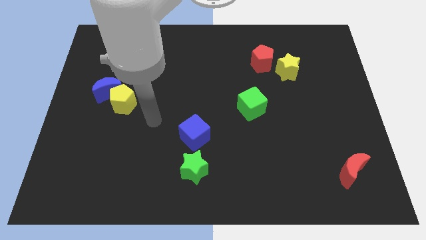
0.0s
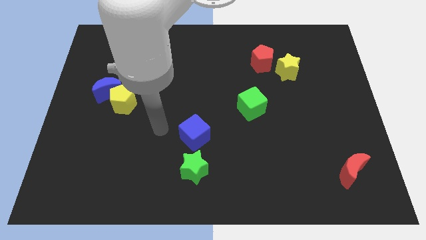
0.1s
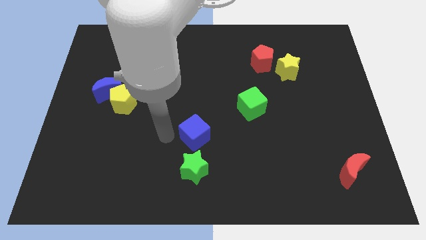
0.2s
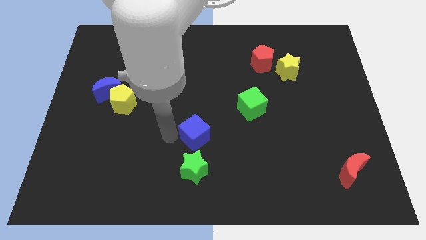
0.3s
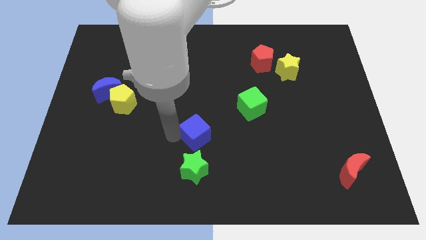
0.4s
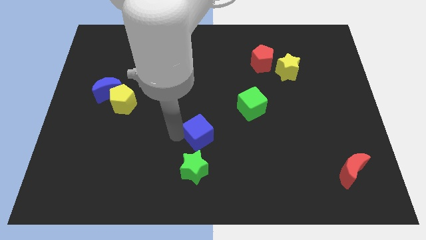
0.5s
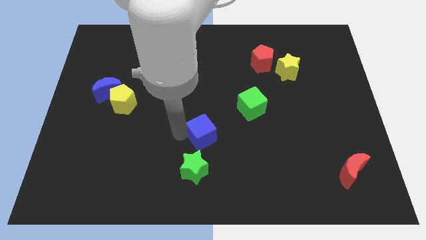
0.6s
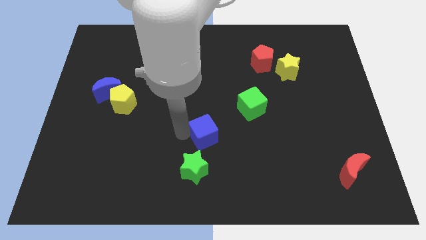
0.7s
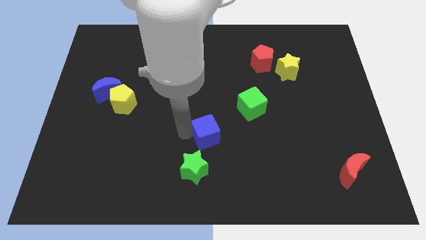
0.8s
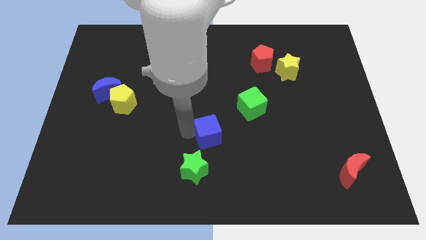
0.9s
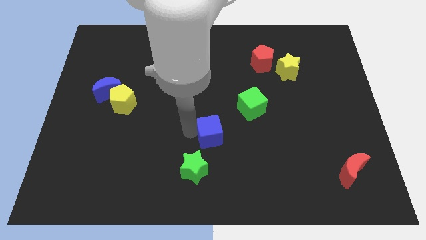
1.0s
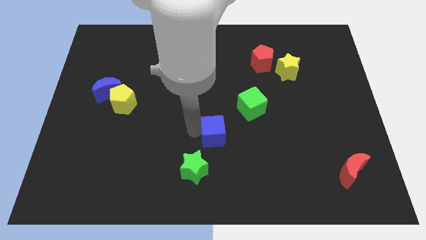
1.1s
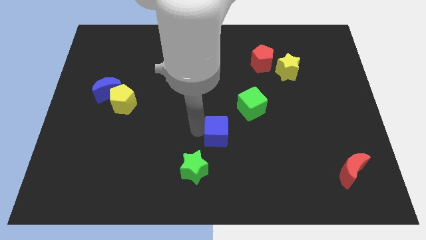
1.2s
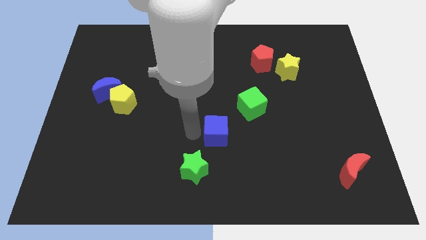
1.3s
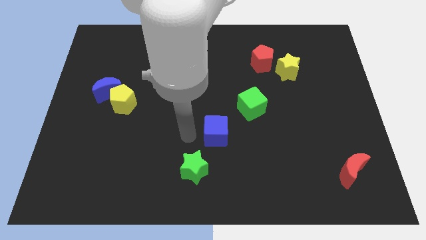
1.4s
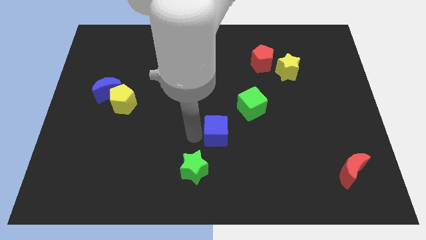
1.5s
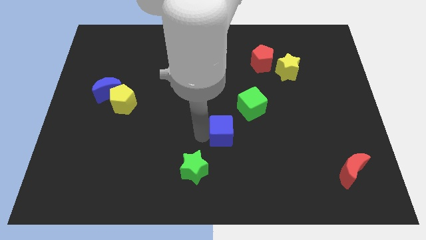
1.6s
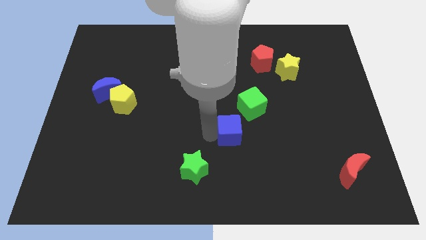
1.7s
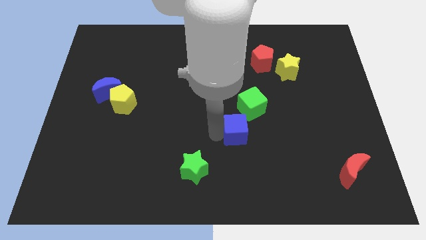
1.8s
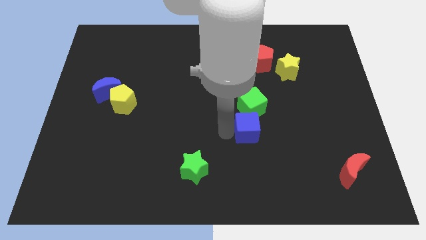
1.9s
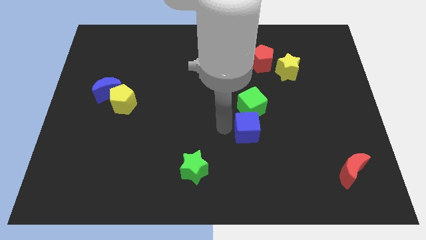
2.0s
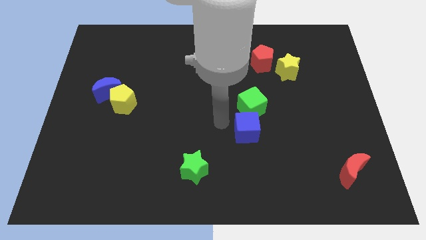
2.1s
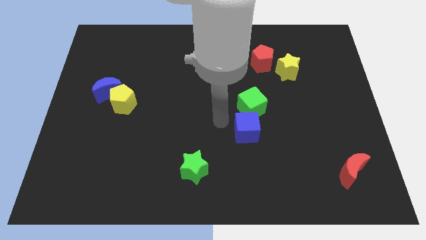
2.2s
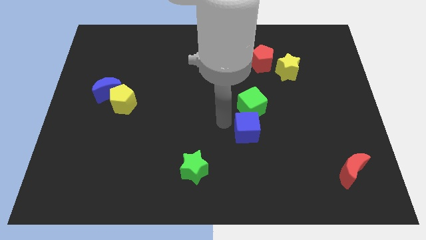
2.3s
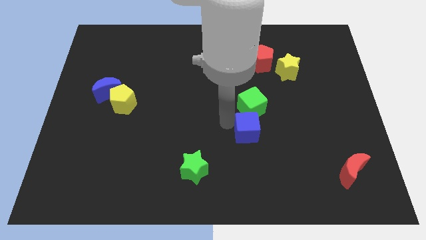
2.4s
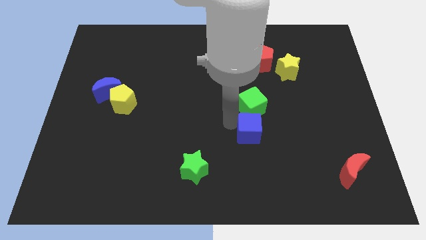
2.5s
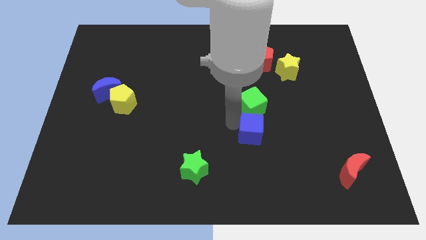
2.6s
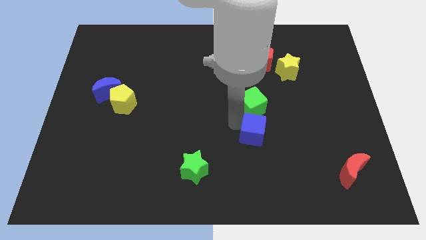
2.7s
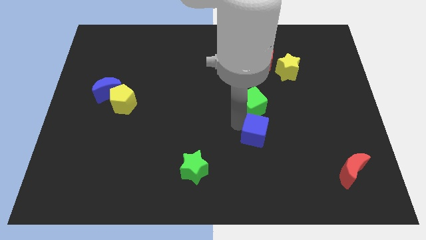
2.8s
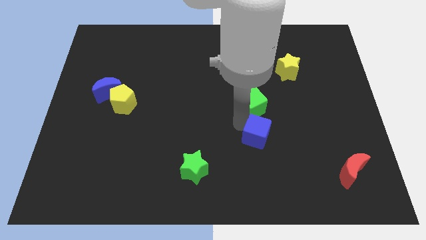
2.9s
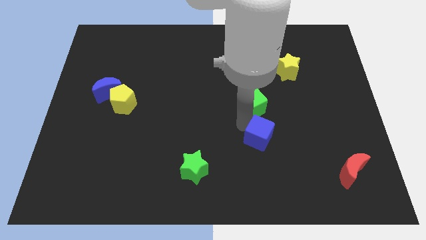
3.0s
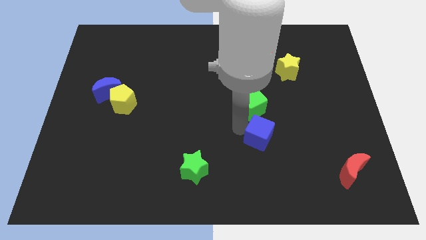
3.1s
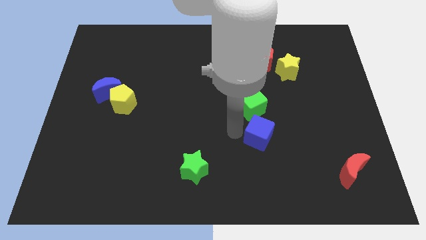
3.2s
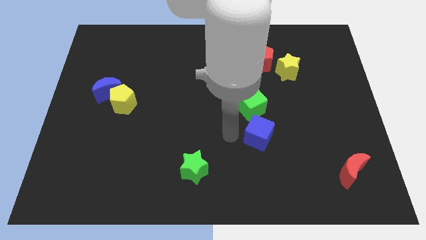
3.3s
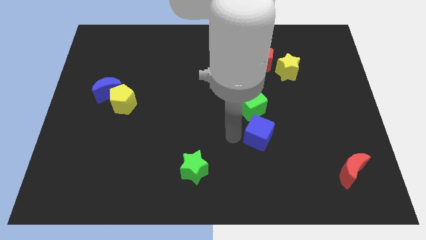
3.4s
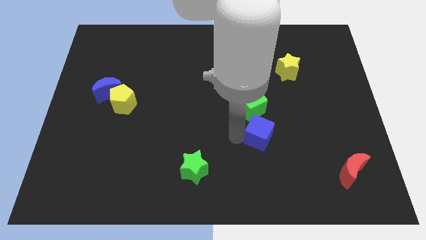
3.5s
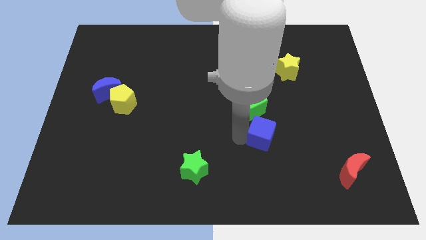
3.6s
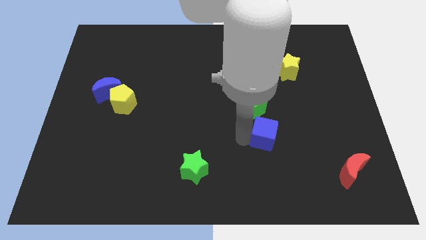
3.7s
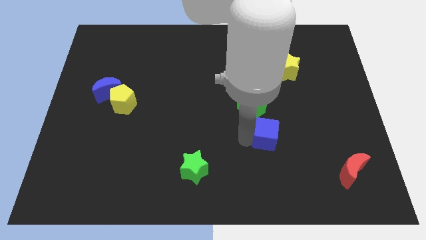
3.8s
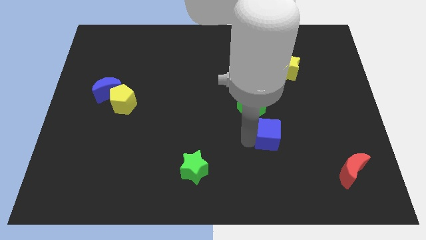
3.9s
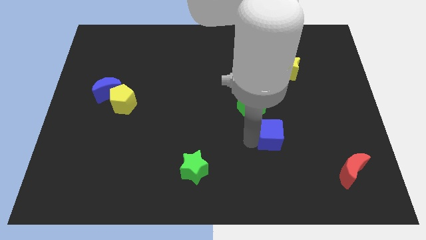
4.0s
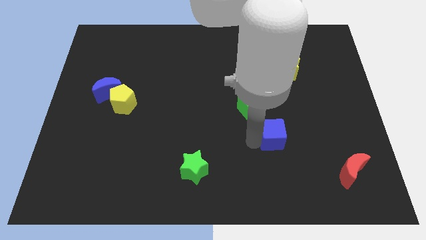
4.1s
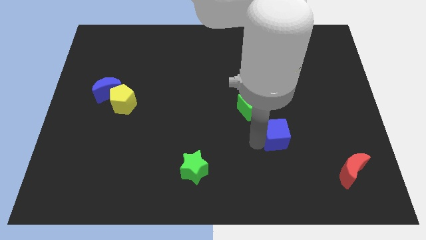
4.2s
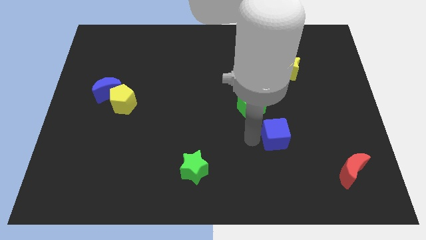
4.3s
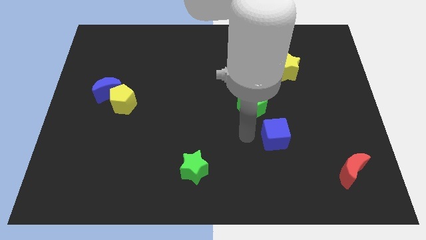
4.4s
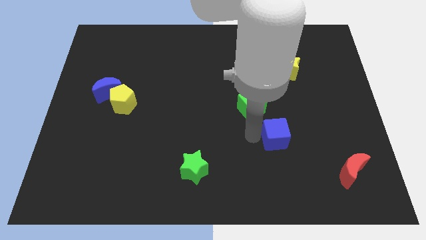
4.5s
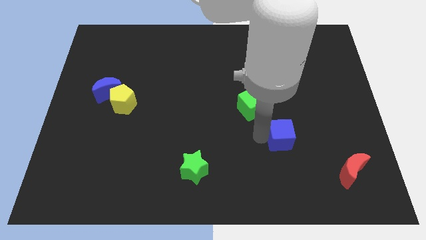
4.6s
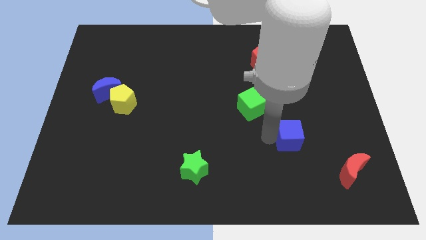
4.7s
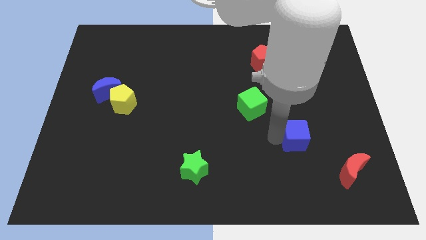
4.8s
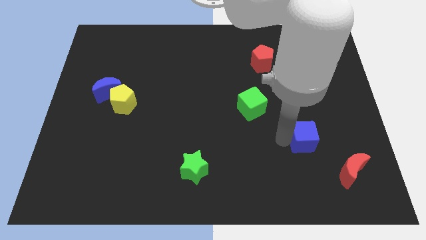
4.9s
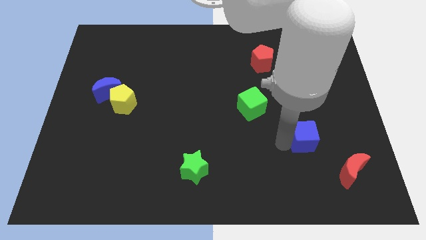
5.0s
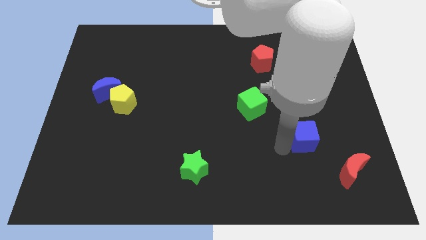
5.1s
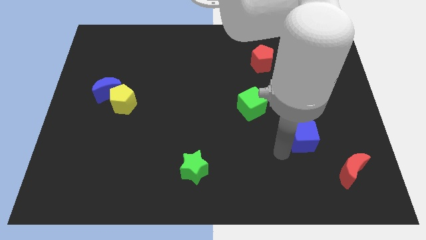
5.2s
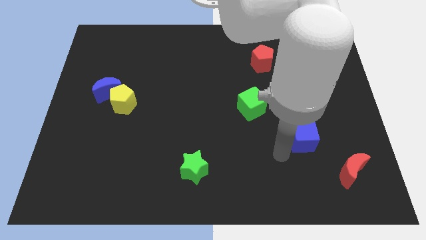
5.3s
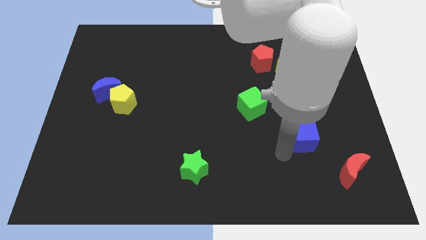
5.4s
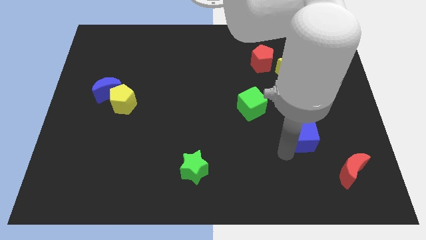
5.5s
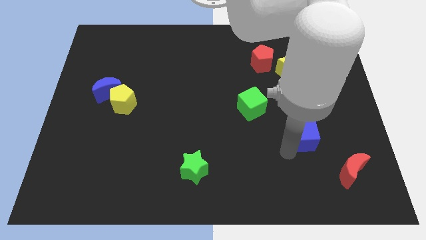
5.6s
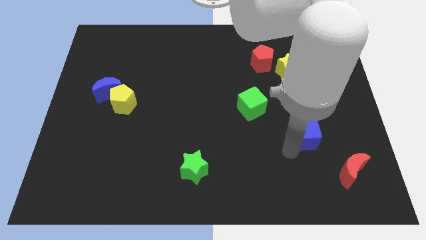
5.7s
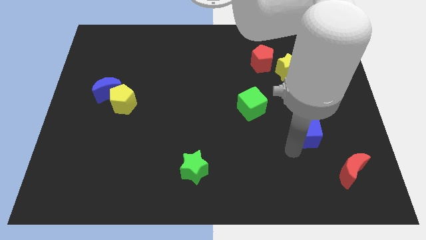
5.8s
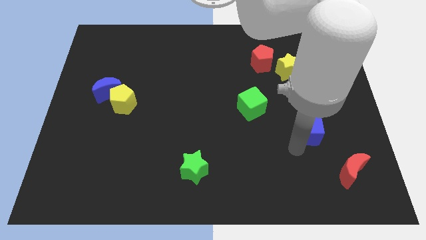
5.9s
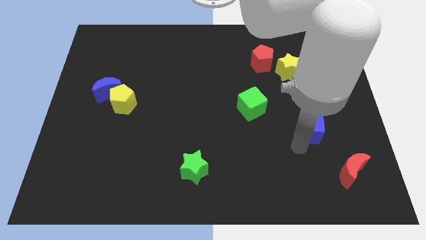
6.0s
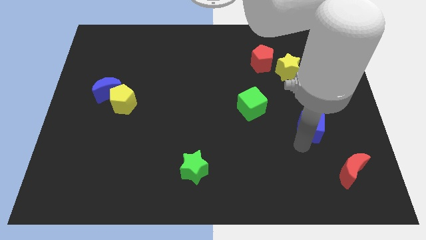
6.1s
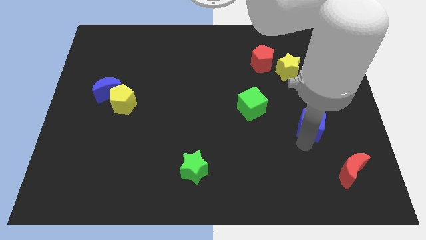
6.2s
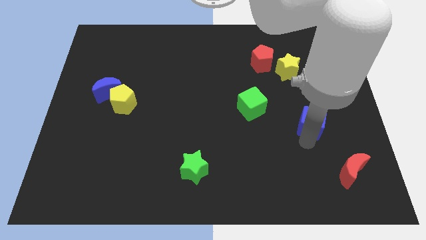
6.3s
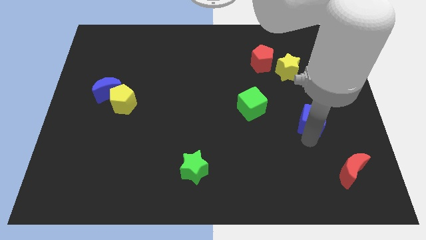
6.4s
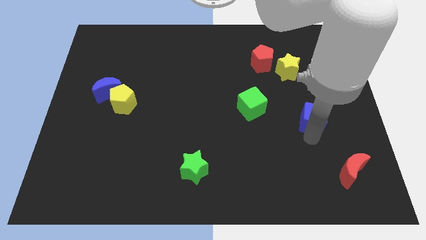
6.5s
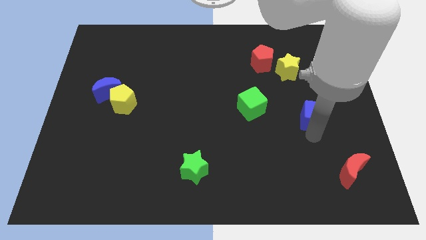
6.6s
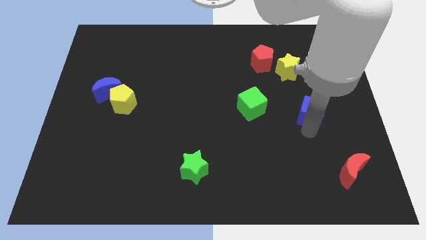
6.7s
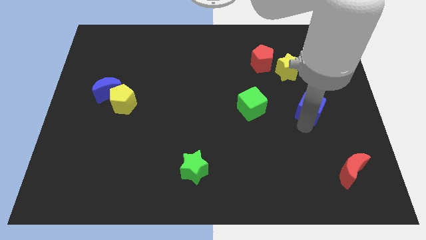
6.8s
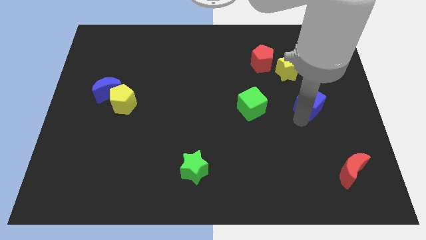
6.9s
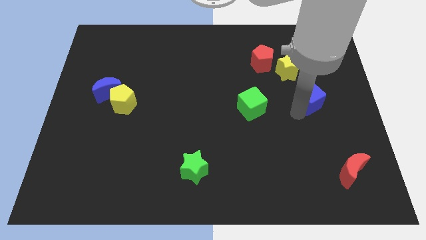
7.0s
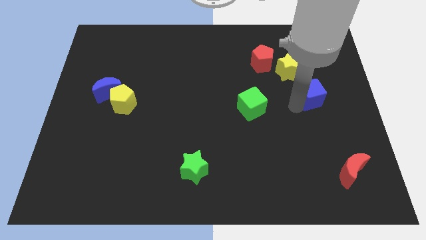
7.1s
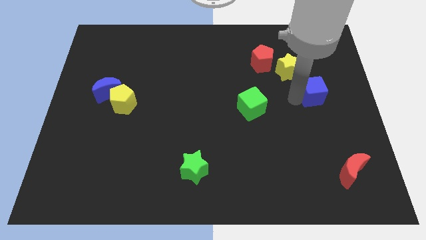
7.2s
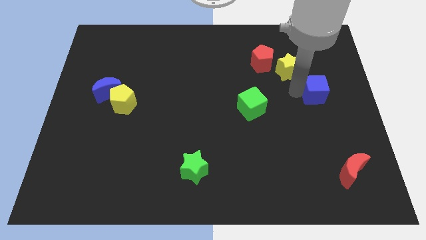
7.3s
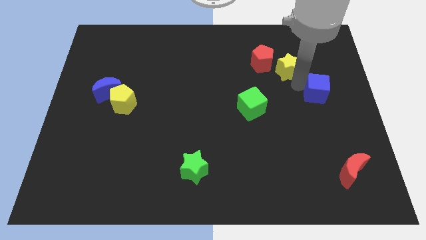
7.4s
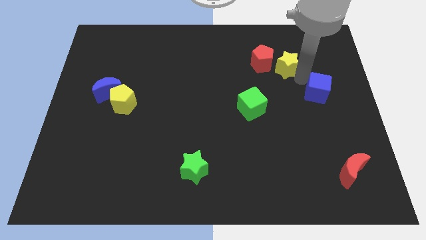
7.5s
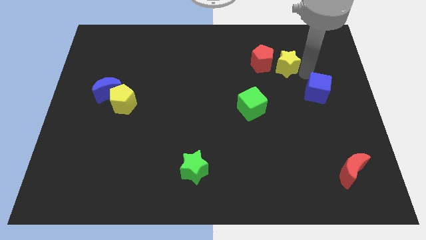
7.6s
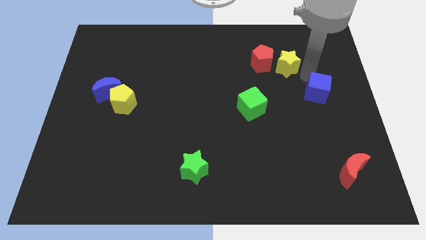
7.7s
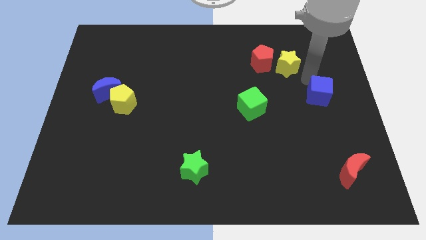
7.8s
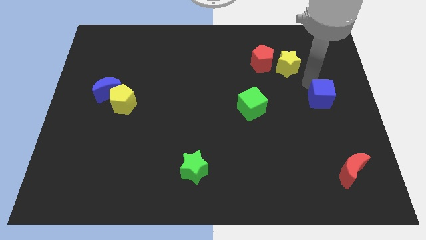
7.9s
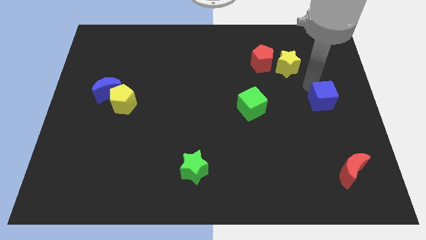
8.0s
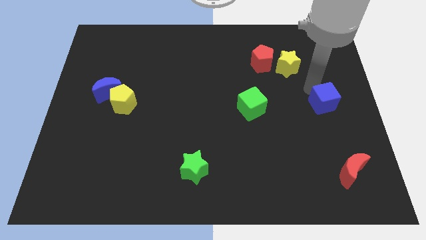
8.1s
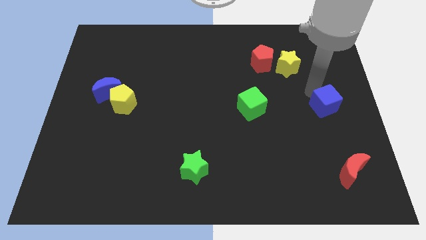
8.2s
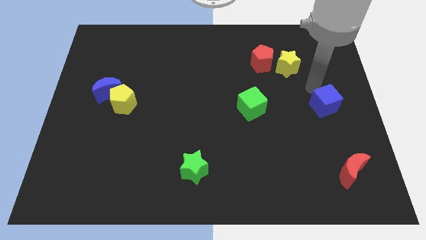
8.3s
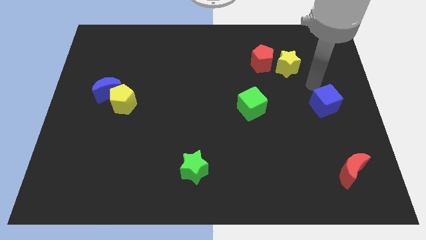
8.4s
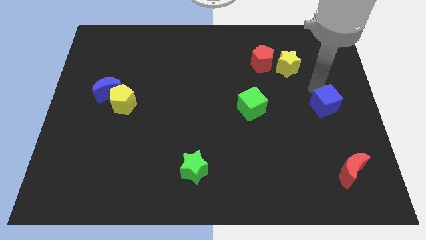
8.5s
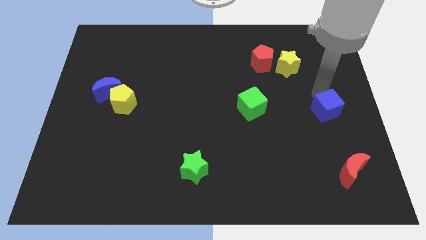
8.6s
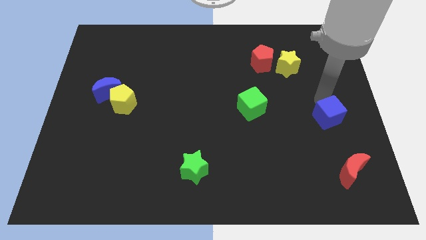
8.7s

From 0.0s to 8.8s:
move the blue cube to the top side of the red moon
